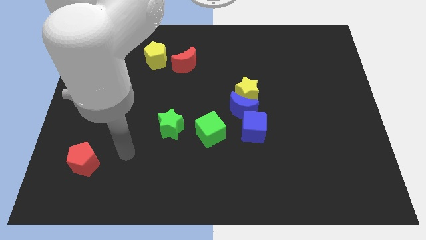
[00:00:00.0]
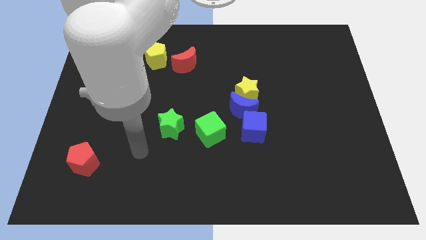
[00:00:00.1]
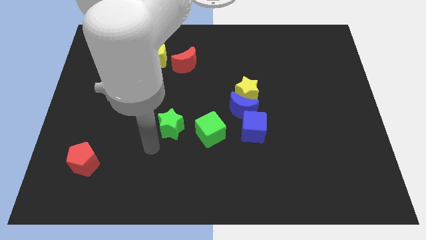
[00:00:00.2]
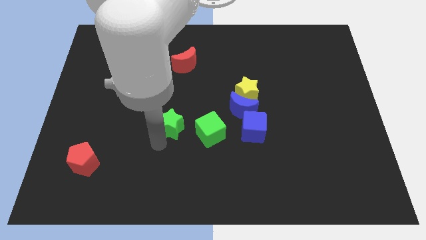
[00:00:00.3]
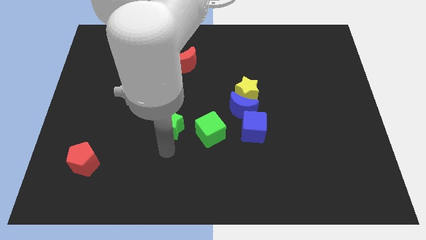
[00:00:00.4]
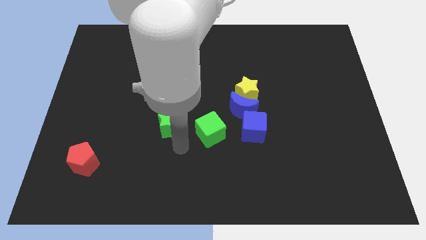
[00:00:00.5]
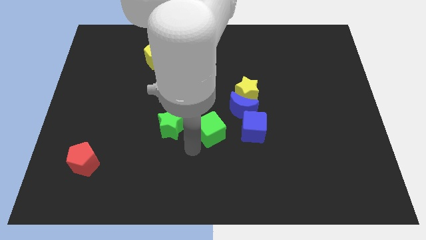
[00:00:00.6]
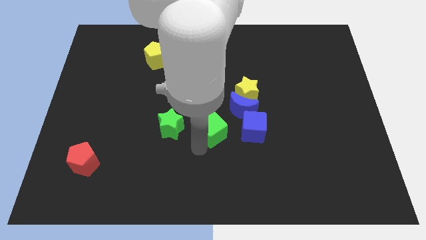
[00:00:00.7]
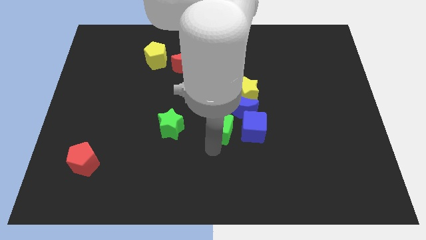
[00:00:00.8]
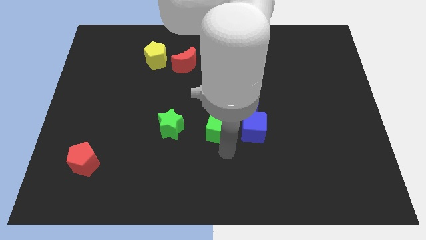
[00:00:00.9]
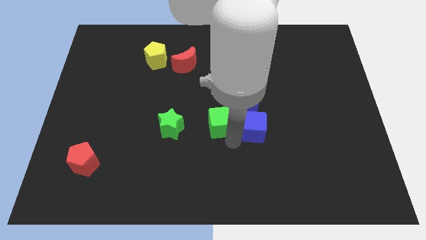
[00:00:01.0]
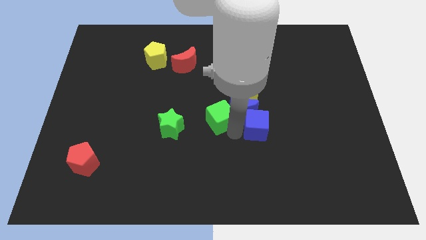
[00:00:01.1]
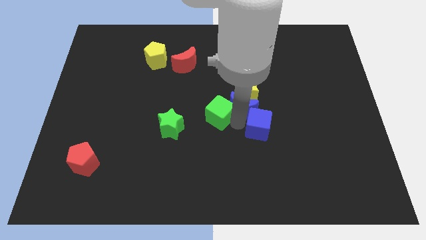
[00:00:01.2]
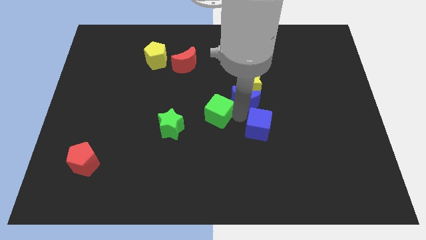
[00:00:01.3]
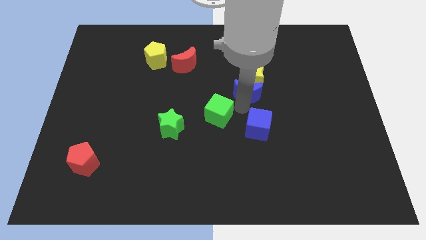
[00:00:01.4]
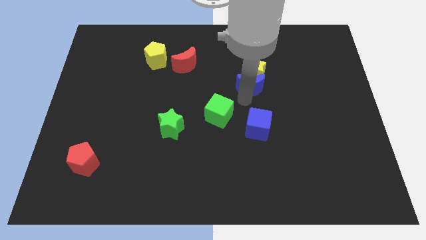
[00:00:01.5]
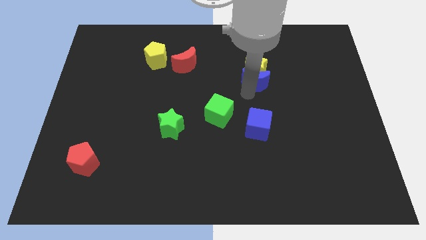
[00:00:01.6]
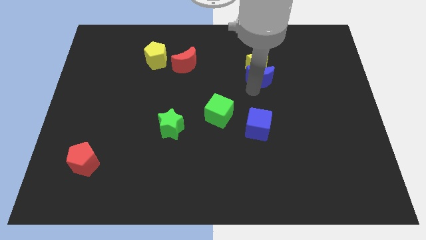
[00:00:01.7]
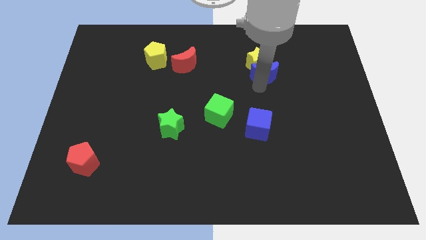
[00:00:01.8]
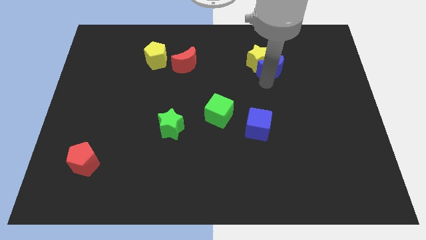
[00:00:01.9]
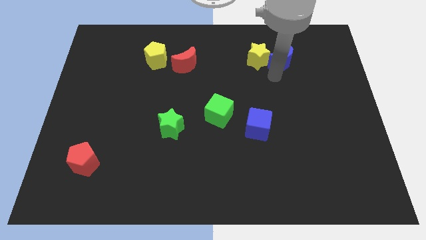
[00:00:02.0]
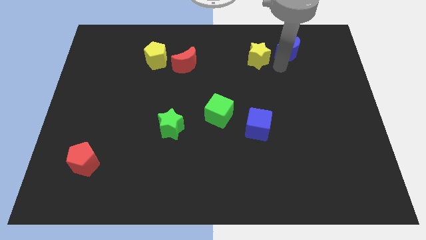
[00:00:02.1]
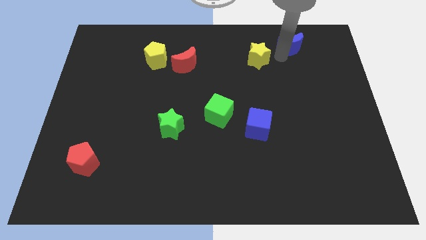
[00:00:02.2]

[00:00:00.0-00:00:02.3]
move the yellow star away from the blue moon

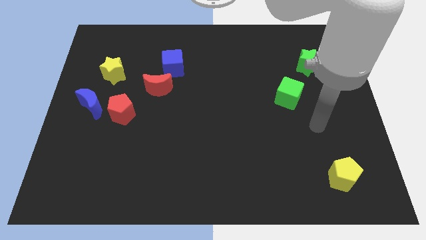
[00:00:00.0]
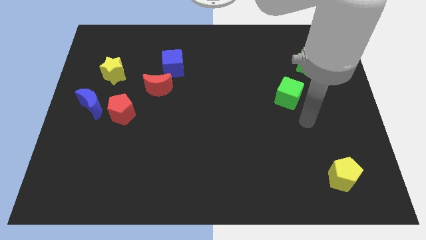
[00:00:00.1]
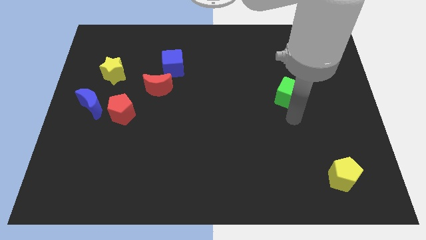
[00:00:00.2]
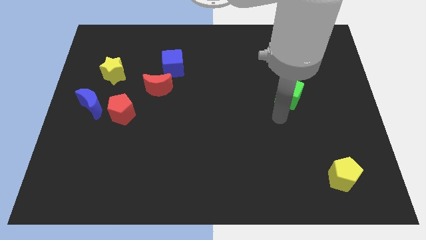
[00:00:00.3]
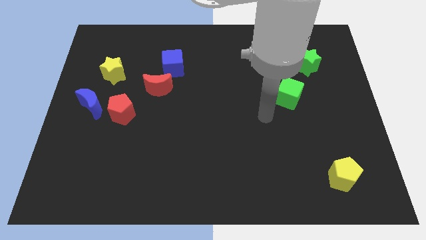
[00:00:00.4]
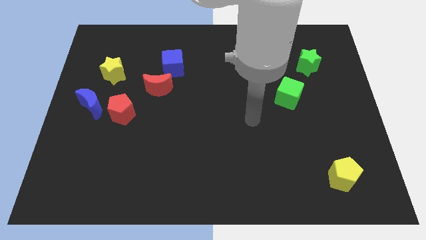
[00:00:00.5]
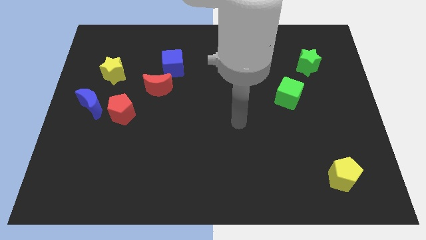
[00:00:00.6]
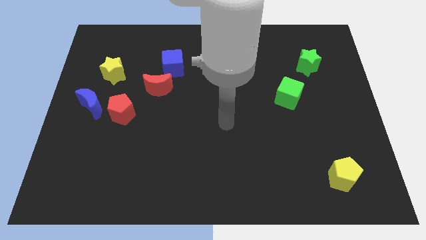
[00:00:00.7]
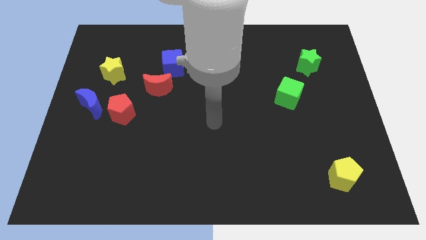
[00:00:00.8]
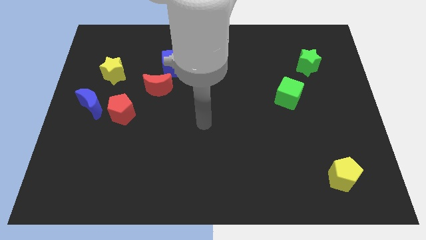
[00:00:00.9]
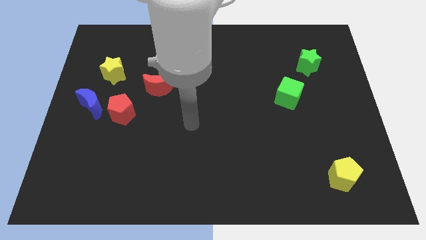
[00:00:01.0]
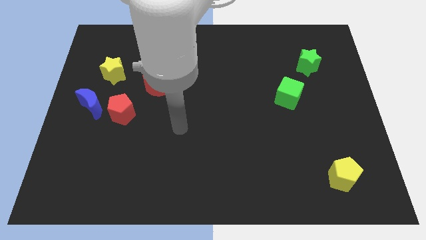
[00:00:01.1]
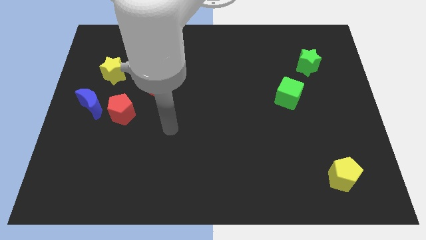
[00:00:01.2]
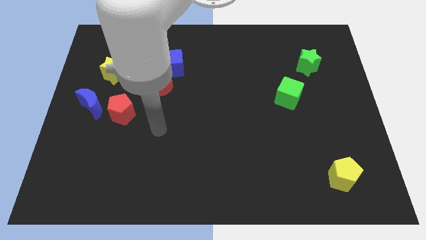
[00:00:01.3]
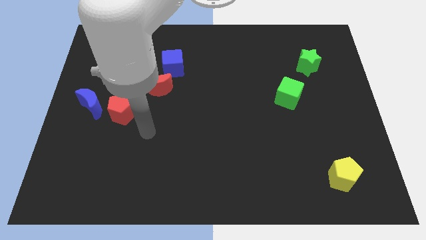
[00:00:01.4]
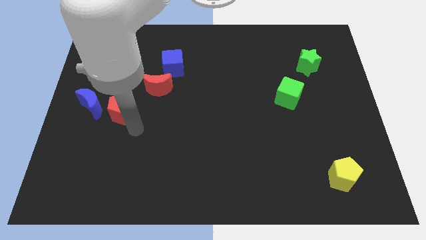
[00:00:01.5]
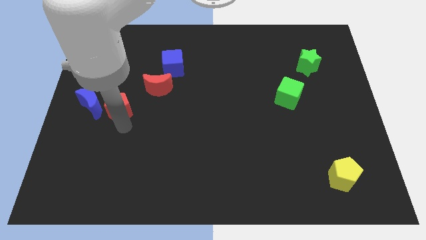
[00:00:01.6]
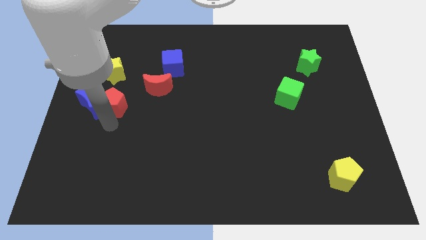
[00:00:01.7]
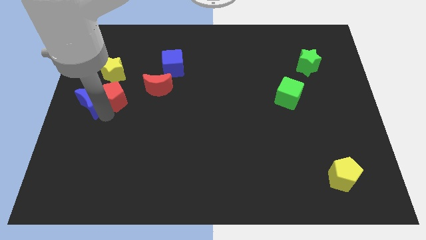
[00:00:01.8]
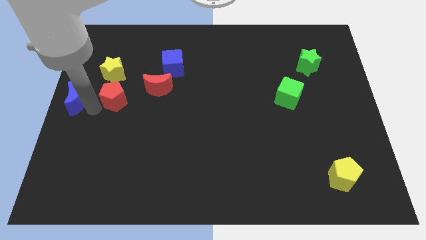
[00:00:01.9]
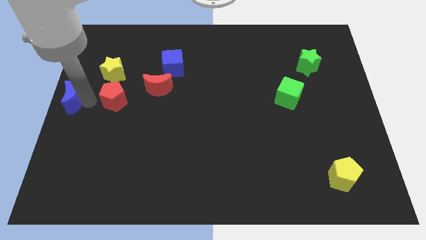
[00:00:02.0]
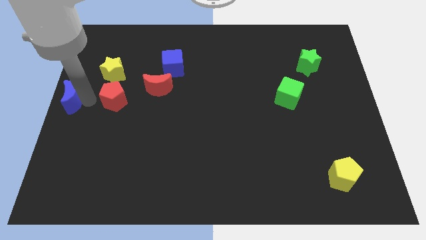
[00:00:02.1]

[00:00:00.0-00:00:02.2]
move the red pentagon away from the blue moon

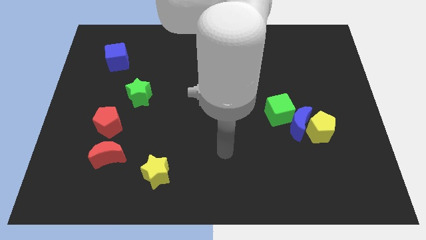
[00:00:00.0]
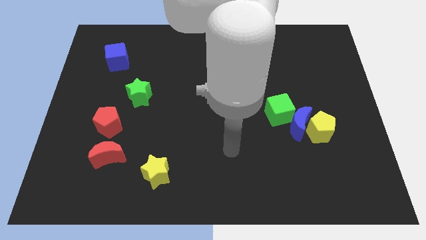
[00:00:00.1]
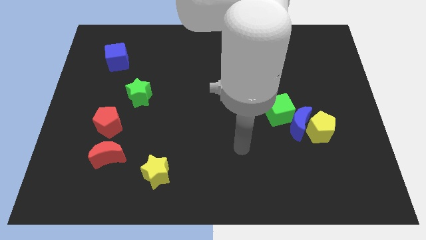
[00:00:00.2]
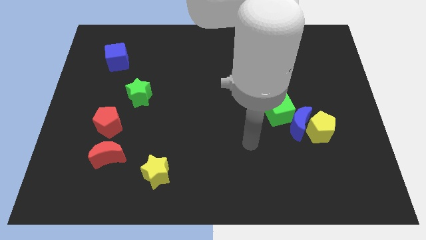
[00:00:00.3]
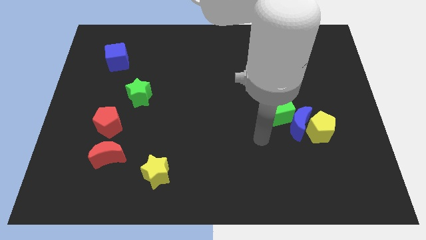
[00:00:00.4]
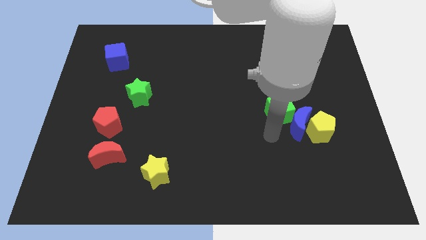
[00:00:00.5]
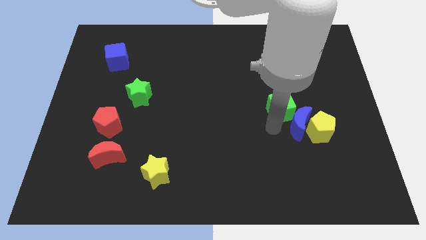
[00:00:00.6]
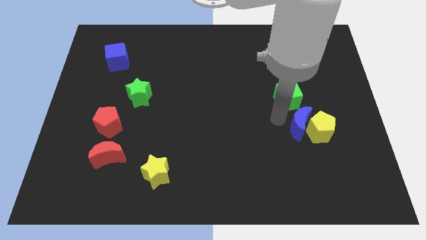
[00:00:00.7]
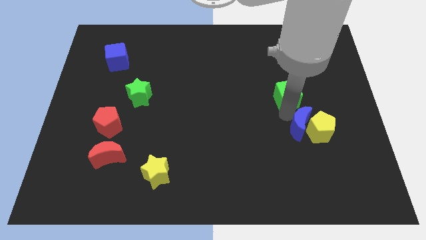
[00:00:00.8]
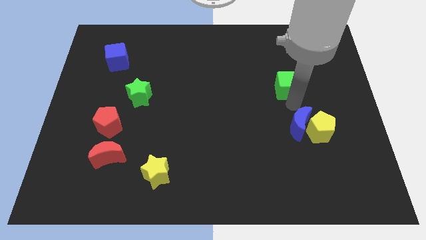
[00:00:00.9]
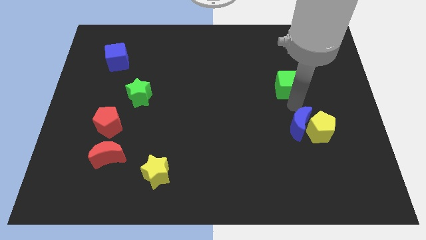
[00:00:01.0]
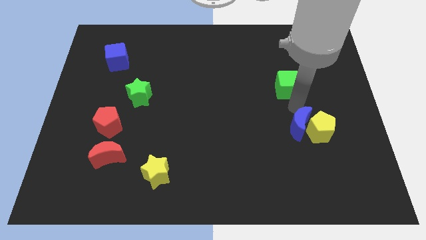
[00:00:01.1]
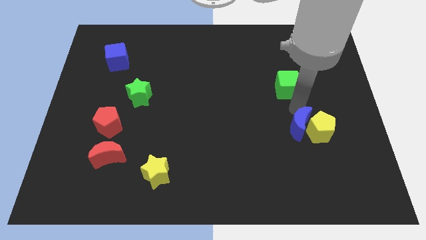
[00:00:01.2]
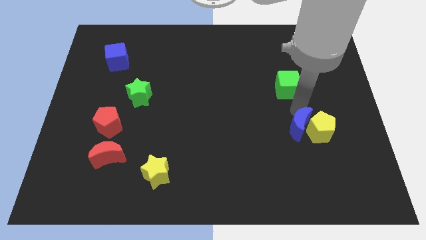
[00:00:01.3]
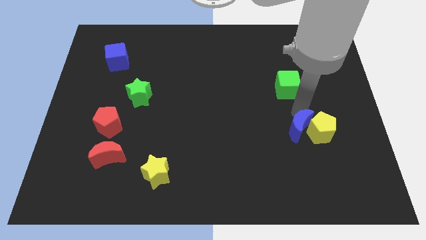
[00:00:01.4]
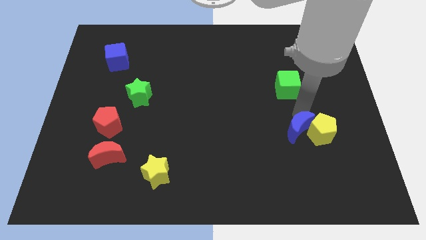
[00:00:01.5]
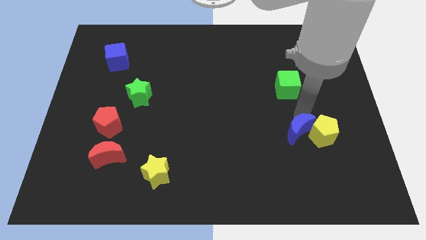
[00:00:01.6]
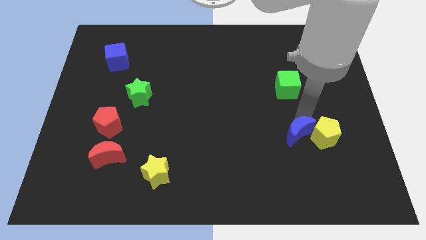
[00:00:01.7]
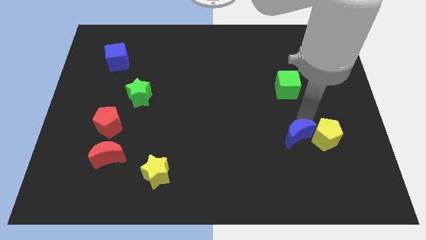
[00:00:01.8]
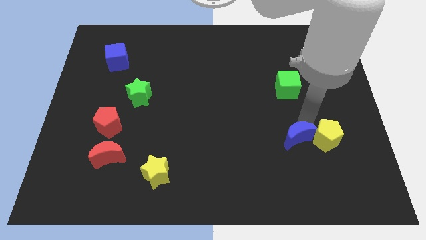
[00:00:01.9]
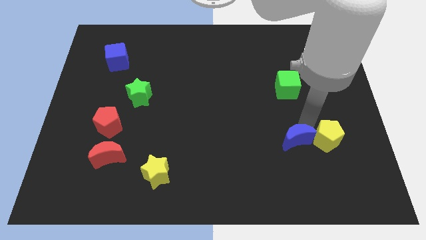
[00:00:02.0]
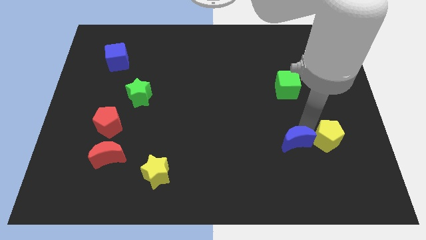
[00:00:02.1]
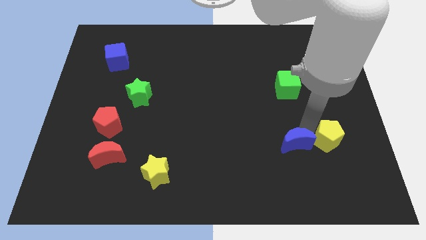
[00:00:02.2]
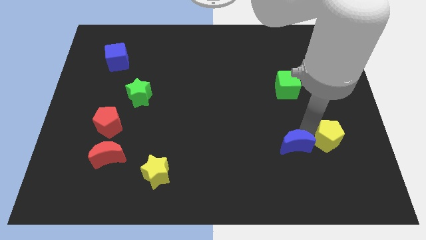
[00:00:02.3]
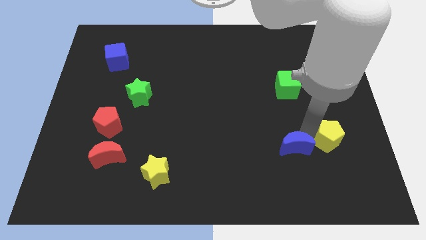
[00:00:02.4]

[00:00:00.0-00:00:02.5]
pull the blue moon apart from the yellow pentagon and green cube

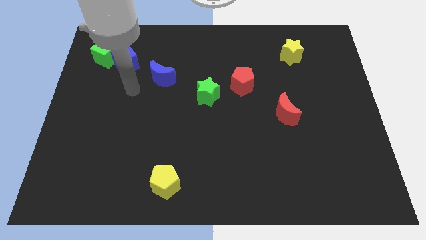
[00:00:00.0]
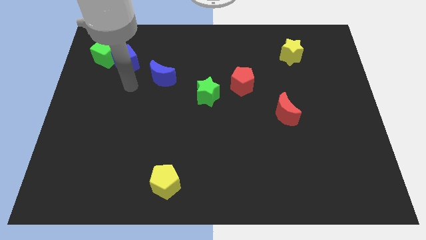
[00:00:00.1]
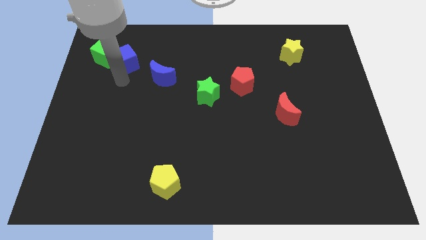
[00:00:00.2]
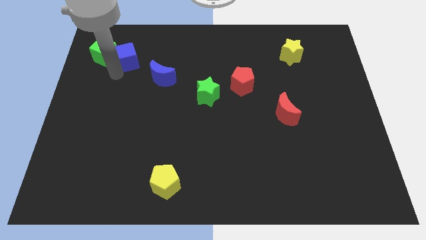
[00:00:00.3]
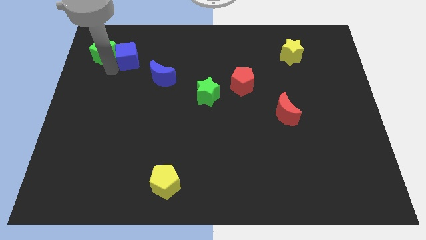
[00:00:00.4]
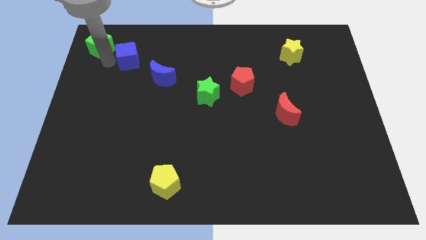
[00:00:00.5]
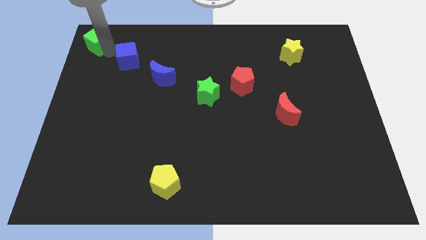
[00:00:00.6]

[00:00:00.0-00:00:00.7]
pull the blue cube apart from the green cube

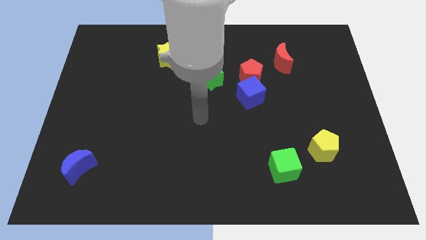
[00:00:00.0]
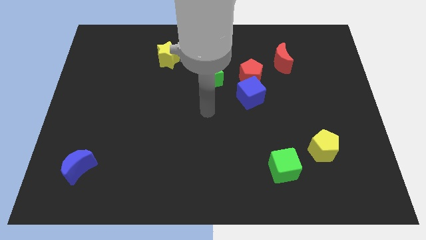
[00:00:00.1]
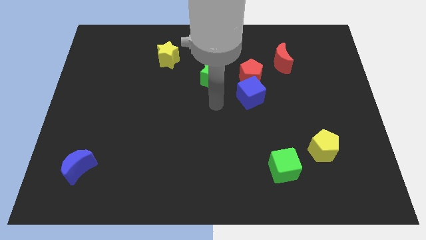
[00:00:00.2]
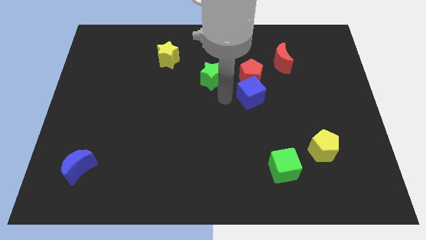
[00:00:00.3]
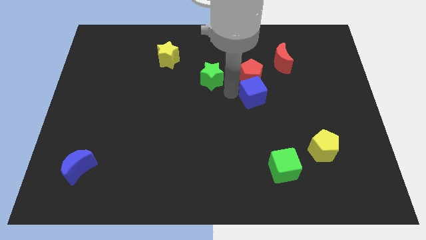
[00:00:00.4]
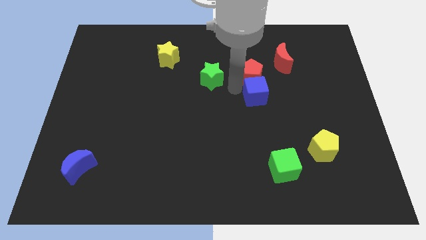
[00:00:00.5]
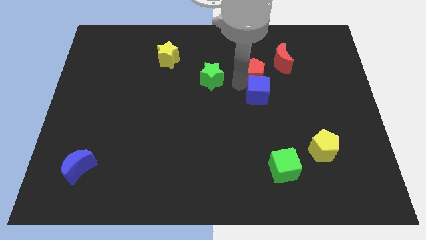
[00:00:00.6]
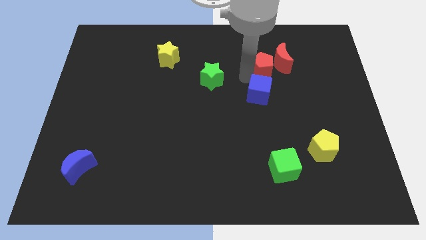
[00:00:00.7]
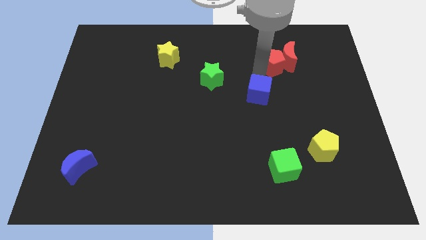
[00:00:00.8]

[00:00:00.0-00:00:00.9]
move the blue cube away from the red pentagon

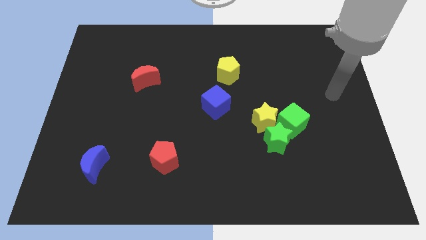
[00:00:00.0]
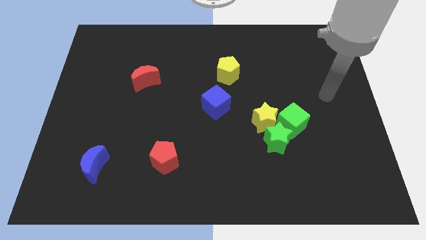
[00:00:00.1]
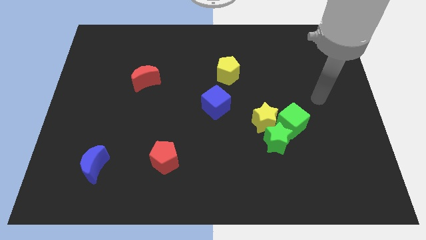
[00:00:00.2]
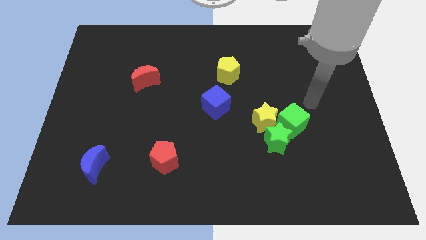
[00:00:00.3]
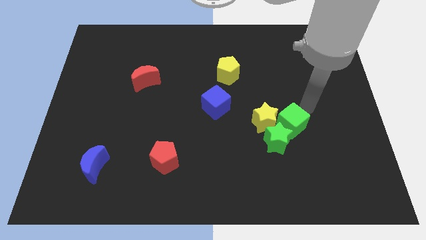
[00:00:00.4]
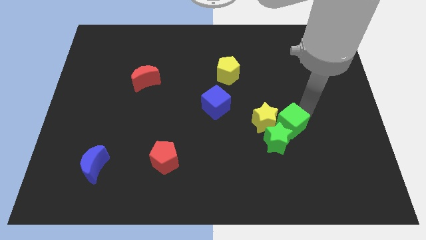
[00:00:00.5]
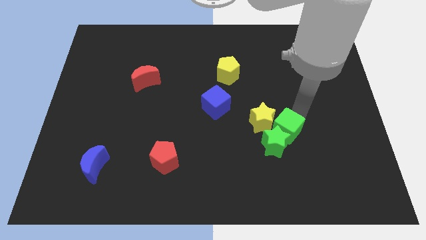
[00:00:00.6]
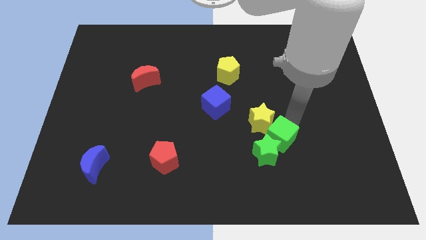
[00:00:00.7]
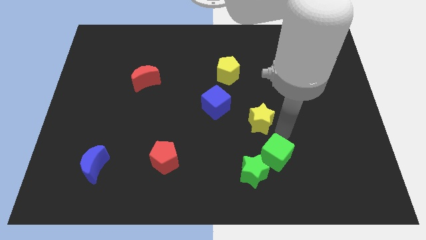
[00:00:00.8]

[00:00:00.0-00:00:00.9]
pull the yellow star apart from the green star and green cube
